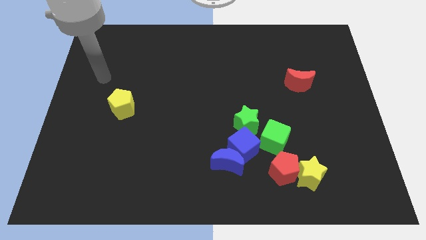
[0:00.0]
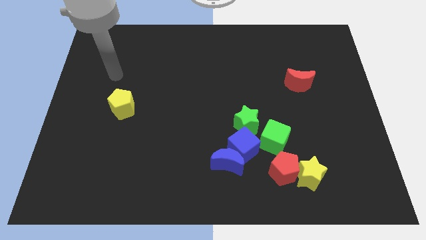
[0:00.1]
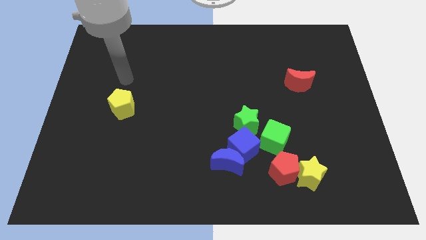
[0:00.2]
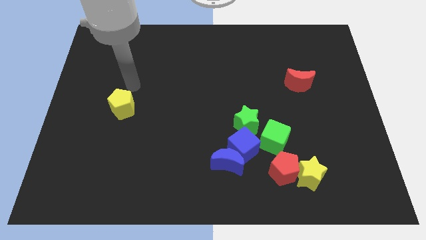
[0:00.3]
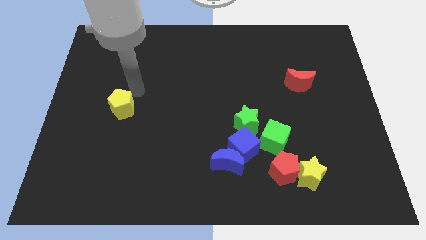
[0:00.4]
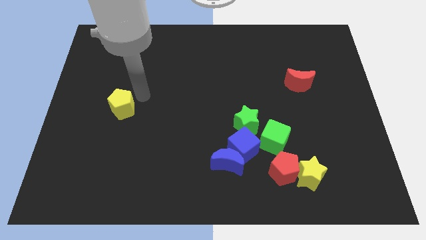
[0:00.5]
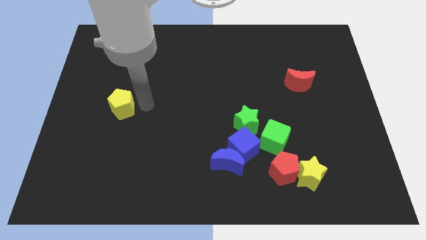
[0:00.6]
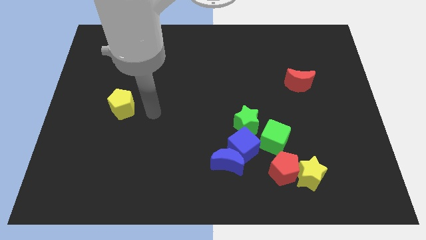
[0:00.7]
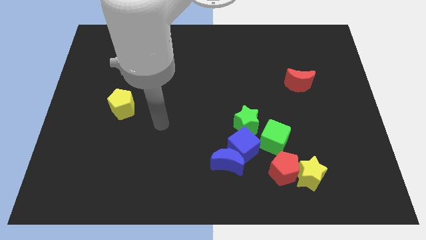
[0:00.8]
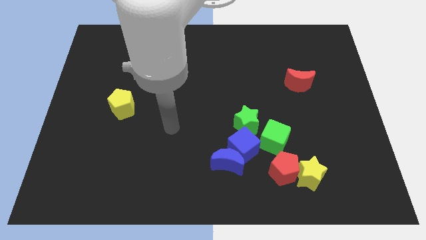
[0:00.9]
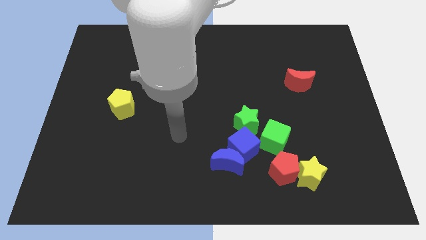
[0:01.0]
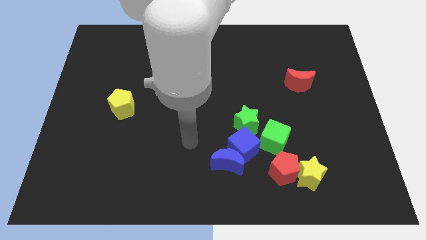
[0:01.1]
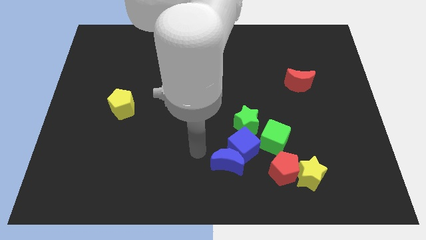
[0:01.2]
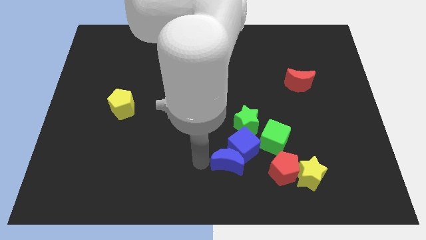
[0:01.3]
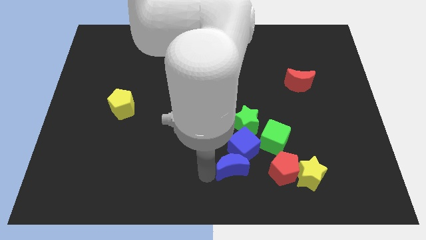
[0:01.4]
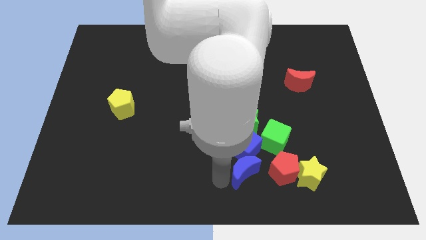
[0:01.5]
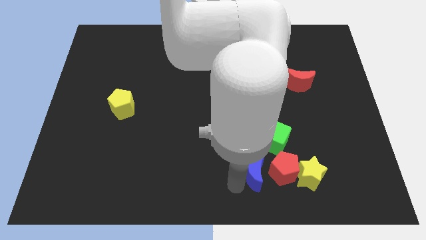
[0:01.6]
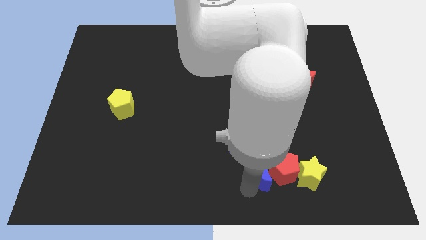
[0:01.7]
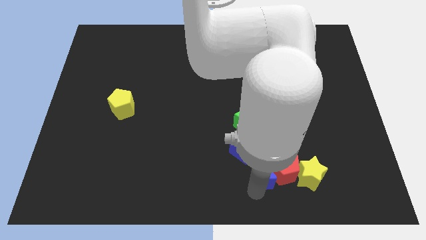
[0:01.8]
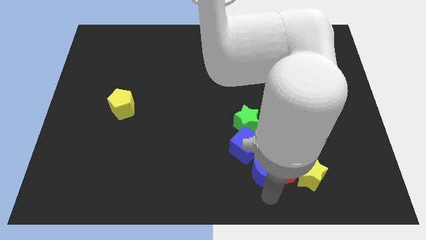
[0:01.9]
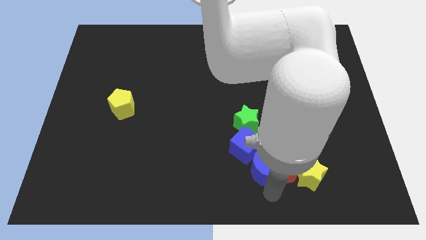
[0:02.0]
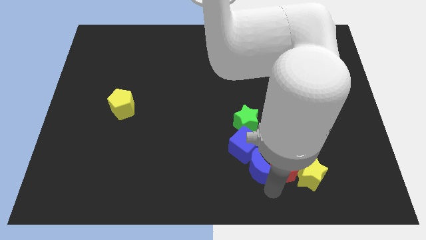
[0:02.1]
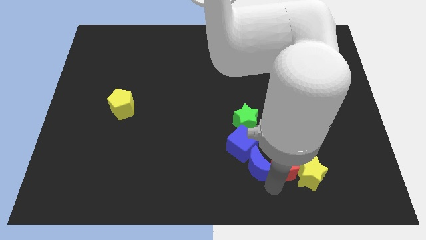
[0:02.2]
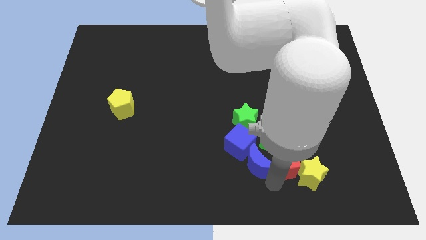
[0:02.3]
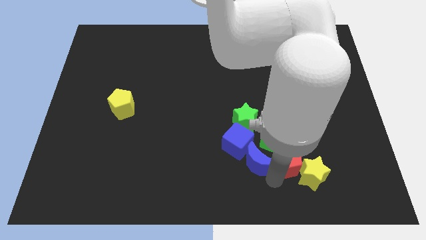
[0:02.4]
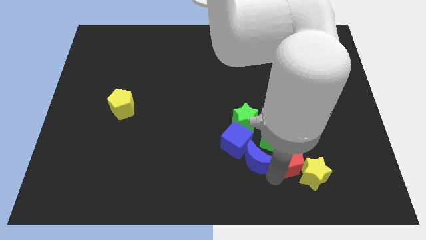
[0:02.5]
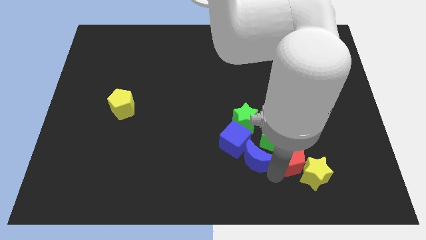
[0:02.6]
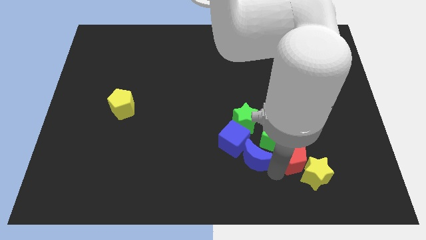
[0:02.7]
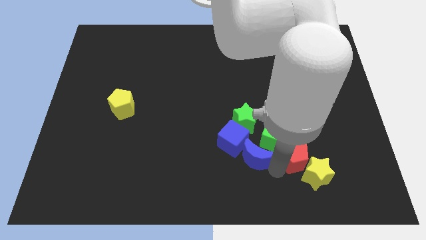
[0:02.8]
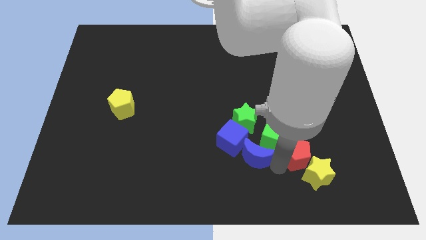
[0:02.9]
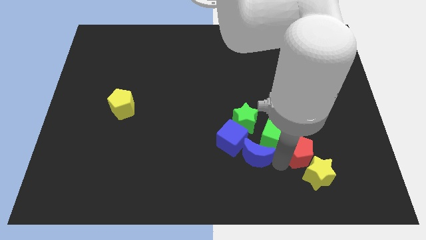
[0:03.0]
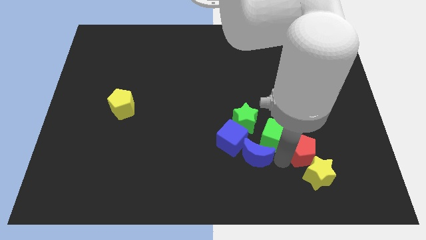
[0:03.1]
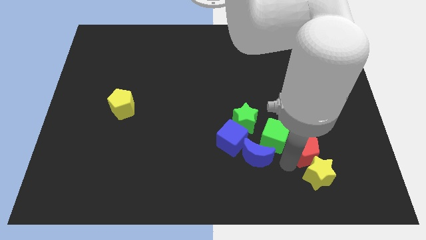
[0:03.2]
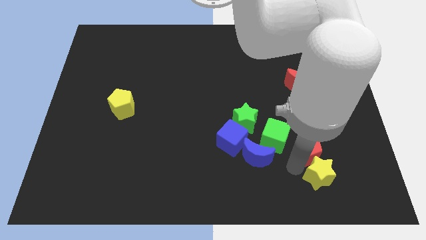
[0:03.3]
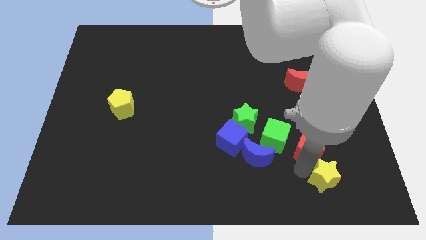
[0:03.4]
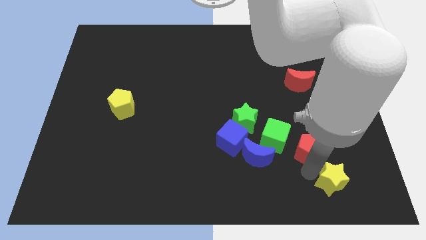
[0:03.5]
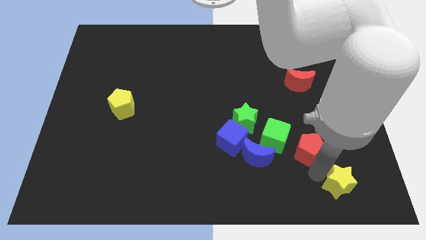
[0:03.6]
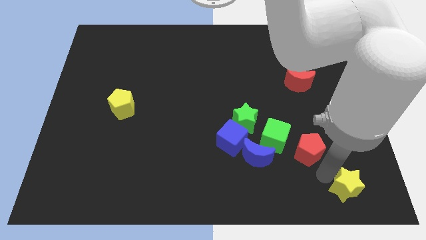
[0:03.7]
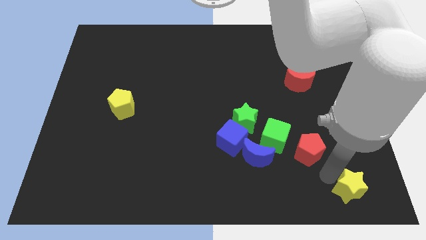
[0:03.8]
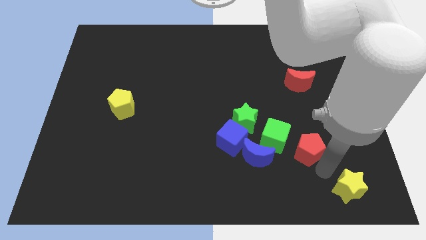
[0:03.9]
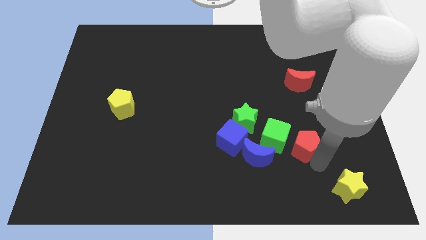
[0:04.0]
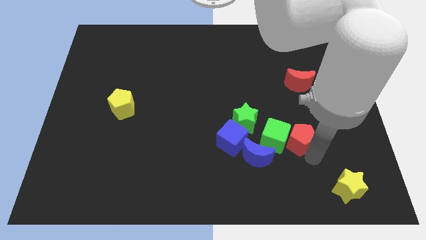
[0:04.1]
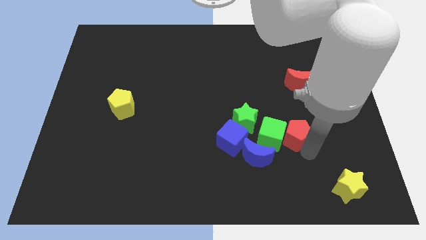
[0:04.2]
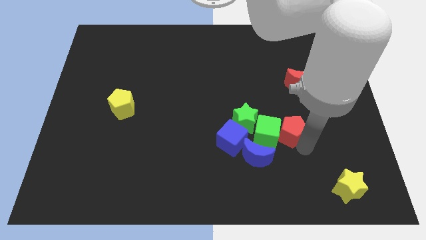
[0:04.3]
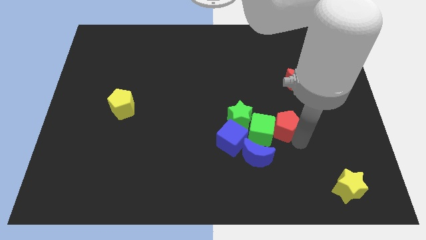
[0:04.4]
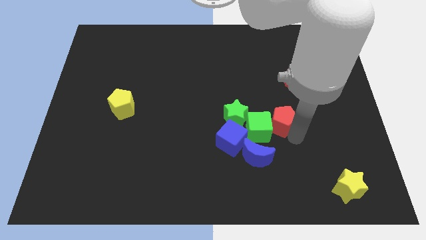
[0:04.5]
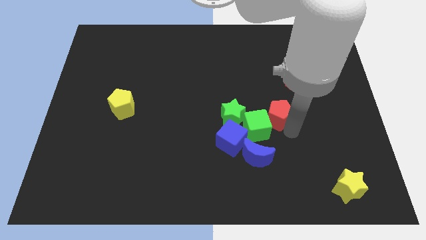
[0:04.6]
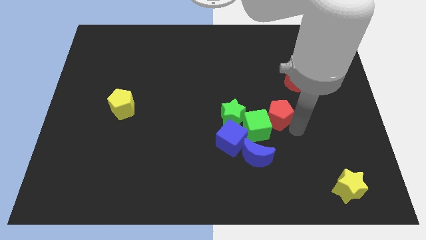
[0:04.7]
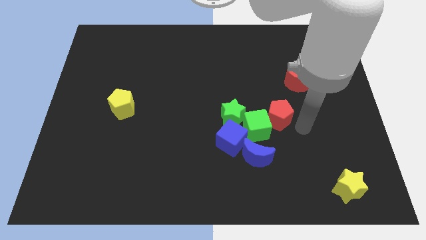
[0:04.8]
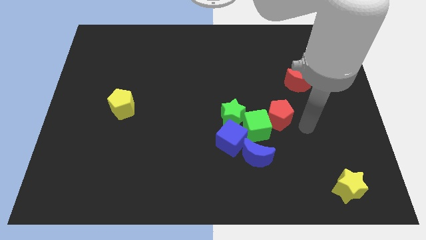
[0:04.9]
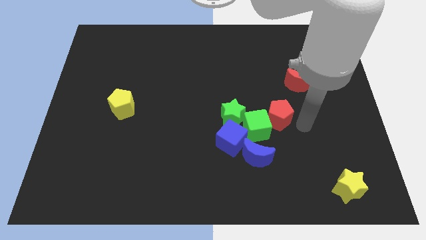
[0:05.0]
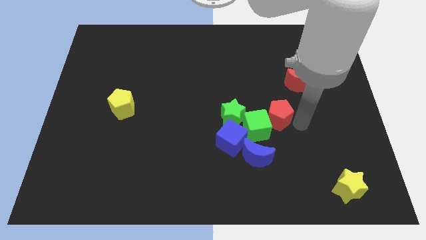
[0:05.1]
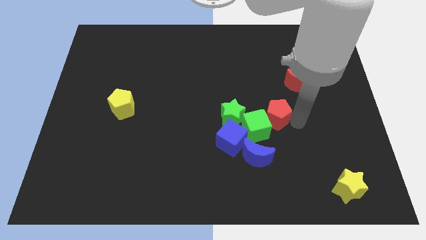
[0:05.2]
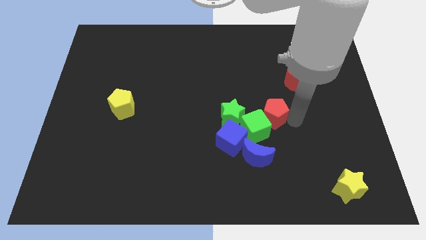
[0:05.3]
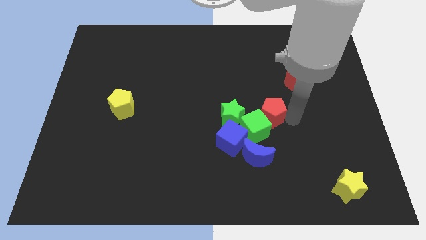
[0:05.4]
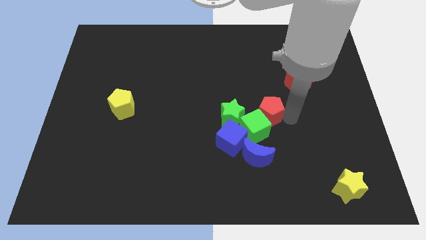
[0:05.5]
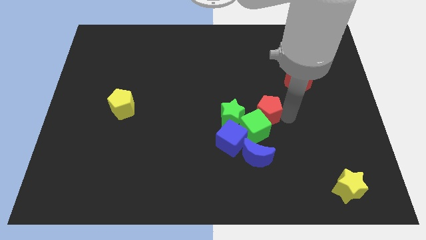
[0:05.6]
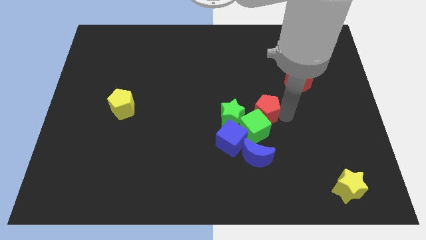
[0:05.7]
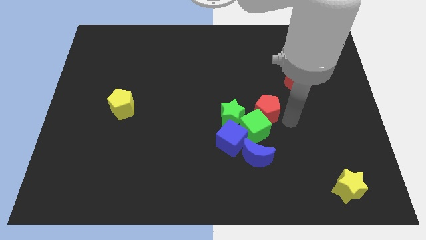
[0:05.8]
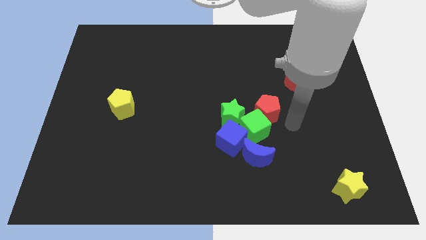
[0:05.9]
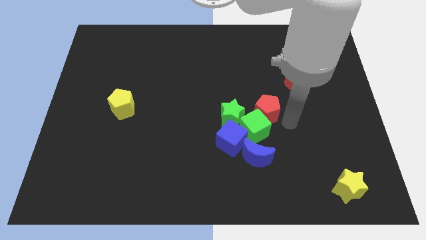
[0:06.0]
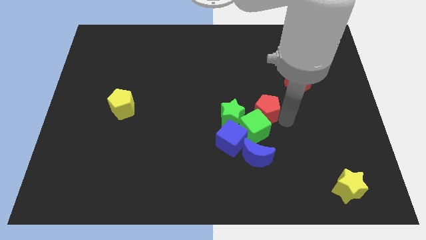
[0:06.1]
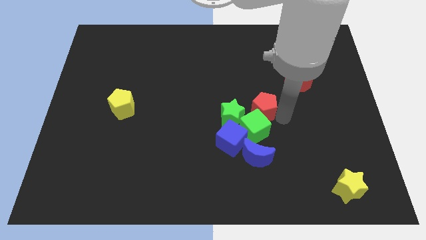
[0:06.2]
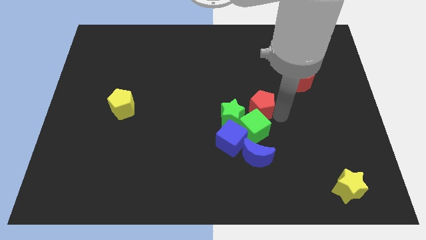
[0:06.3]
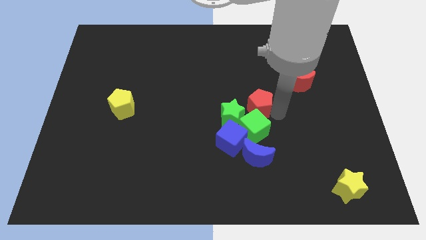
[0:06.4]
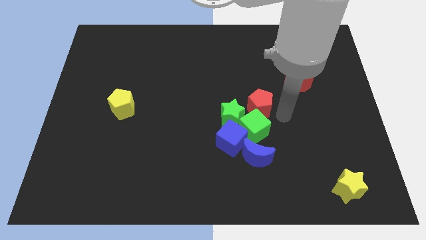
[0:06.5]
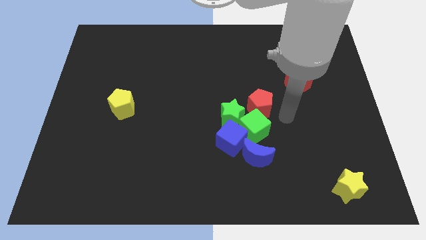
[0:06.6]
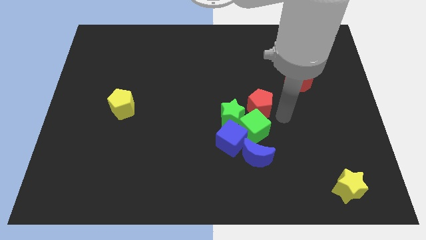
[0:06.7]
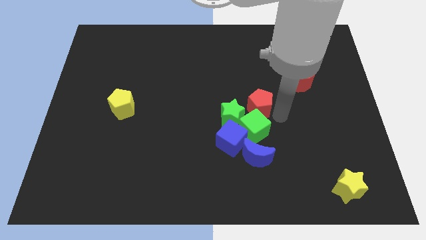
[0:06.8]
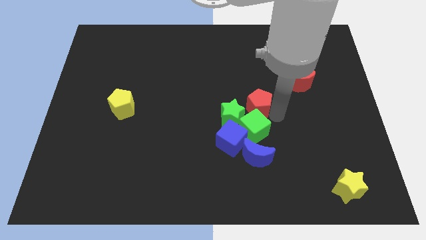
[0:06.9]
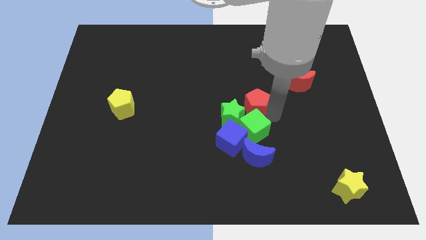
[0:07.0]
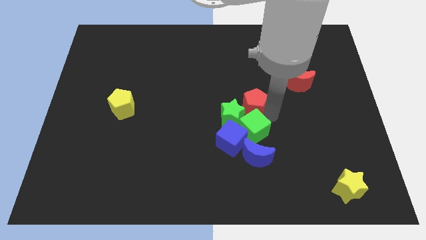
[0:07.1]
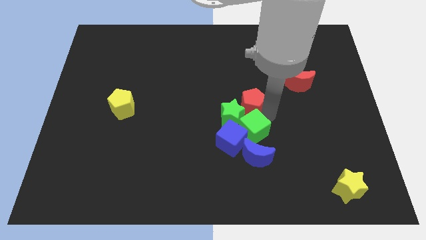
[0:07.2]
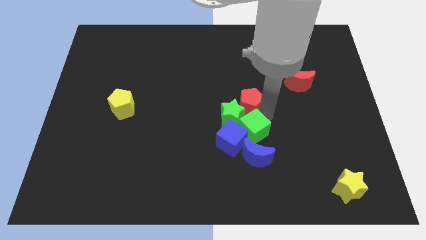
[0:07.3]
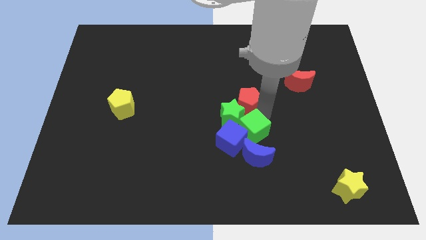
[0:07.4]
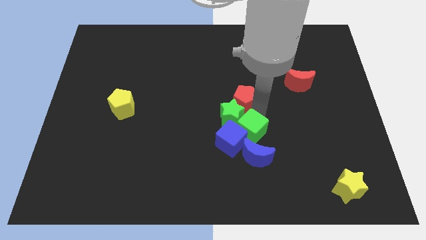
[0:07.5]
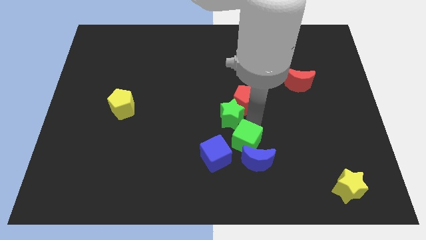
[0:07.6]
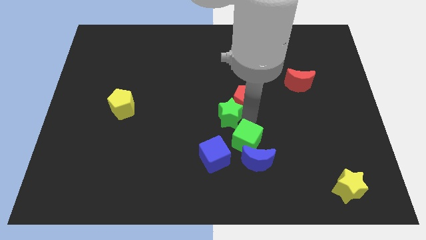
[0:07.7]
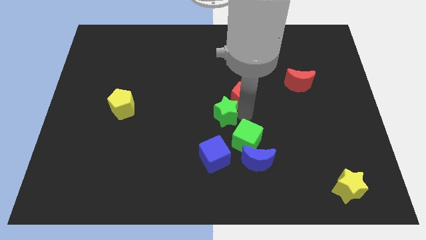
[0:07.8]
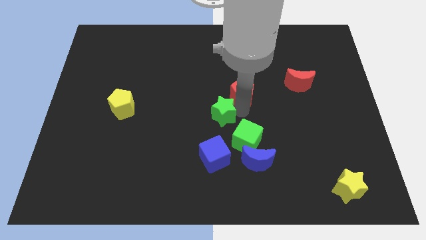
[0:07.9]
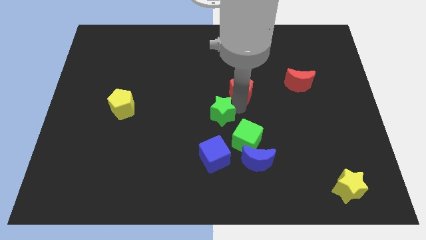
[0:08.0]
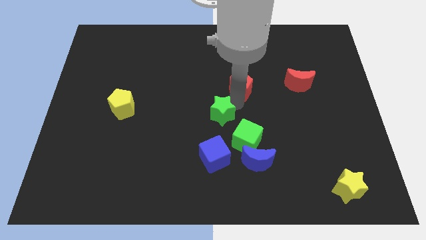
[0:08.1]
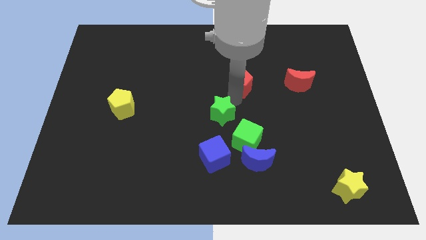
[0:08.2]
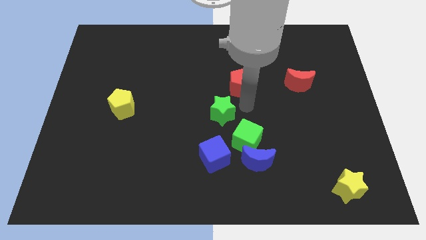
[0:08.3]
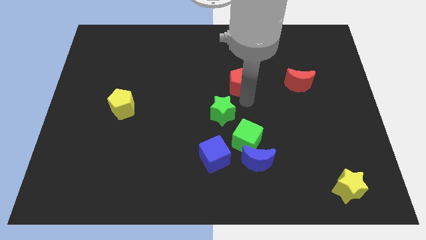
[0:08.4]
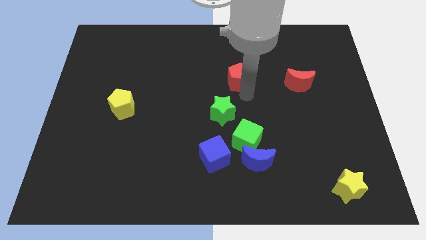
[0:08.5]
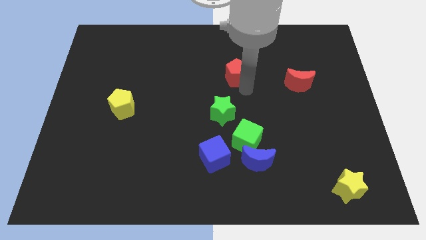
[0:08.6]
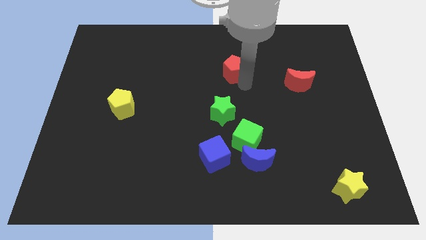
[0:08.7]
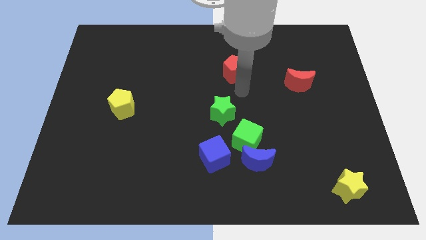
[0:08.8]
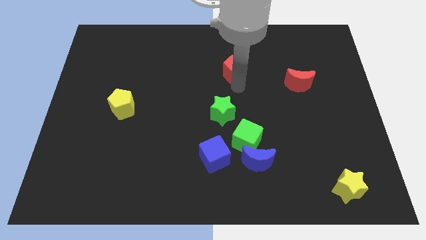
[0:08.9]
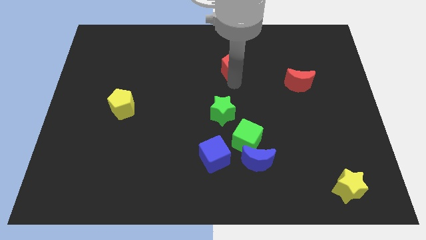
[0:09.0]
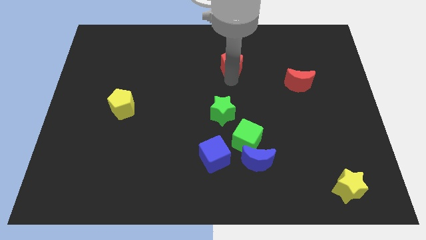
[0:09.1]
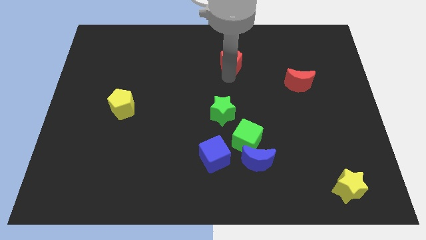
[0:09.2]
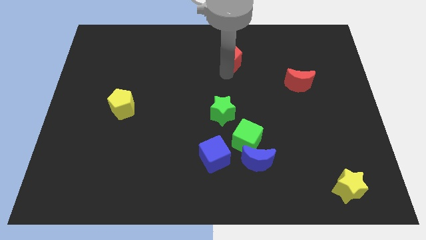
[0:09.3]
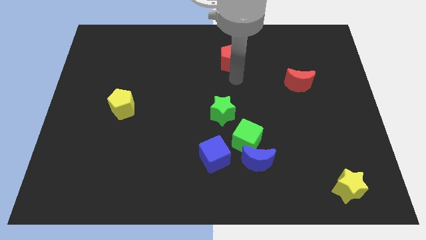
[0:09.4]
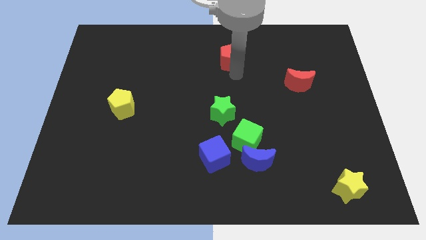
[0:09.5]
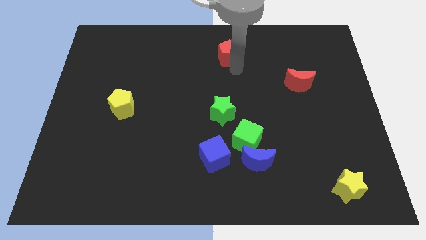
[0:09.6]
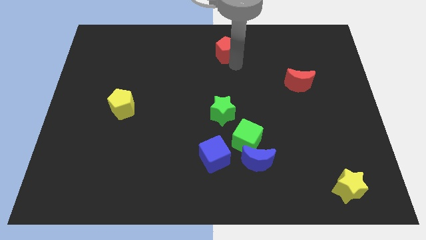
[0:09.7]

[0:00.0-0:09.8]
put the red pentagon to the towards your base
